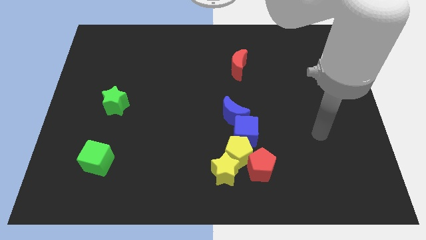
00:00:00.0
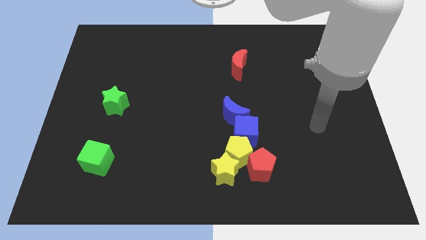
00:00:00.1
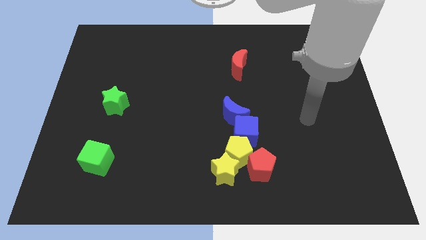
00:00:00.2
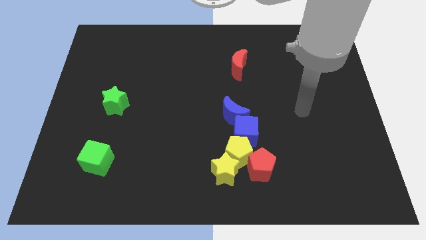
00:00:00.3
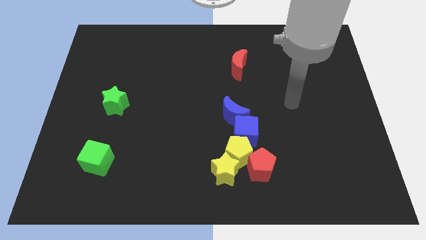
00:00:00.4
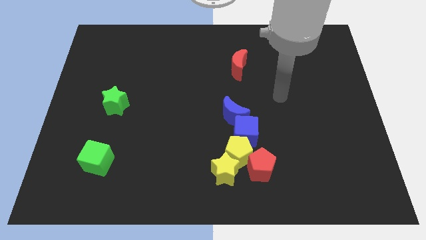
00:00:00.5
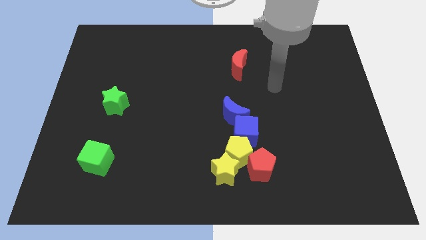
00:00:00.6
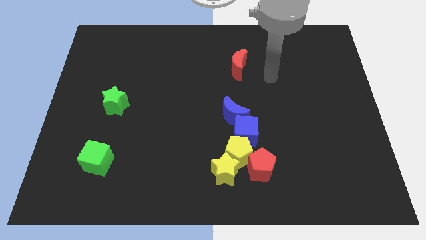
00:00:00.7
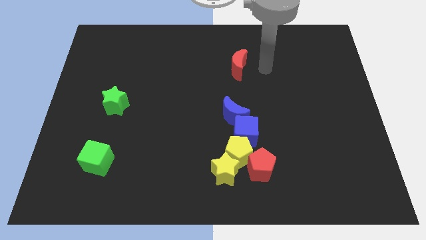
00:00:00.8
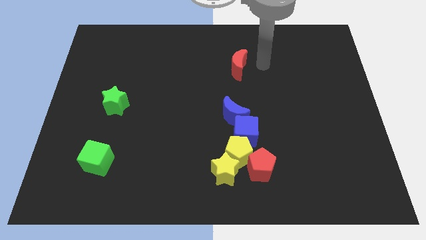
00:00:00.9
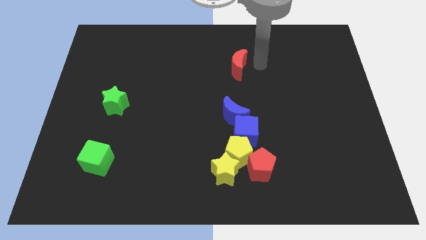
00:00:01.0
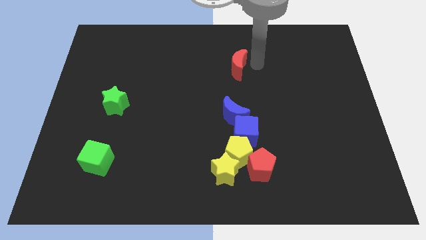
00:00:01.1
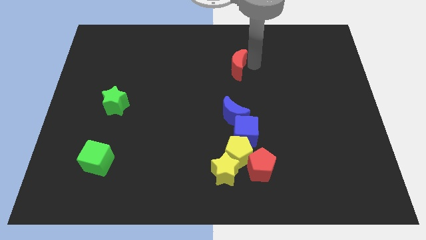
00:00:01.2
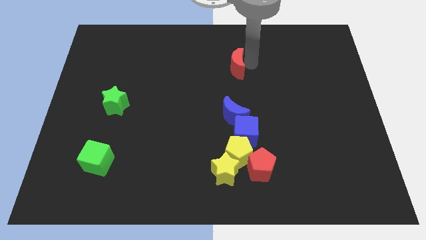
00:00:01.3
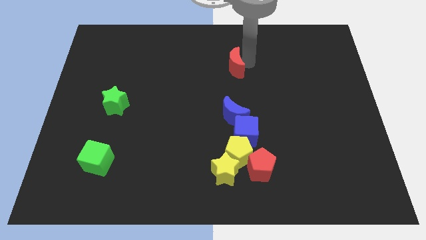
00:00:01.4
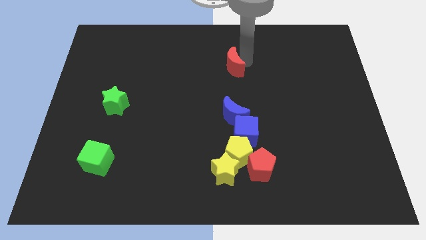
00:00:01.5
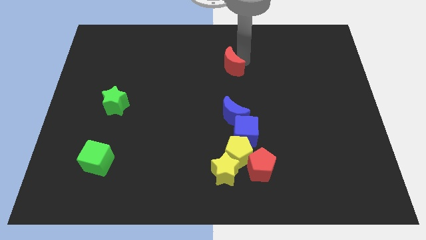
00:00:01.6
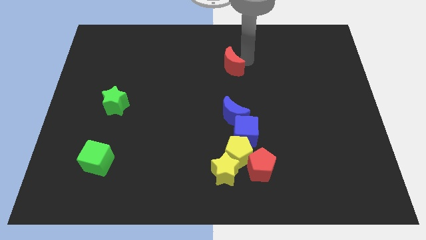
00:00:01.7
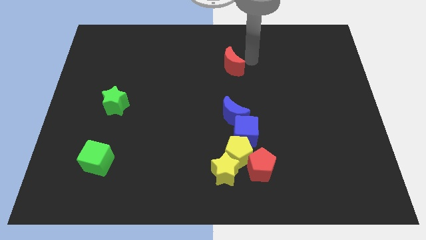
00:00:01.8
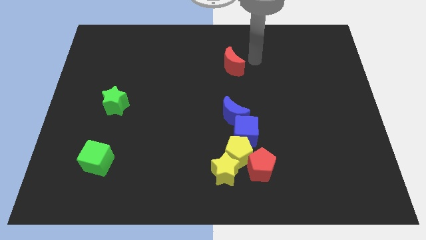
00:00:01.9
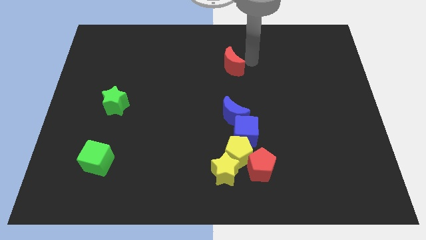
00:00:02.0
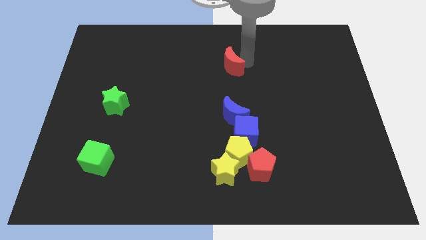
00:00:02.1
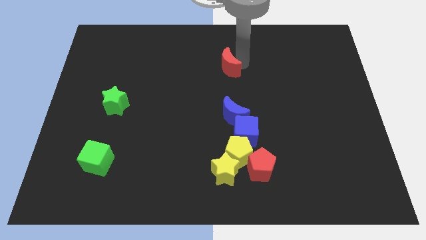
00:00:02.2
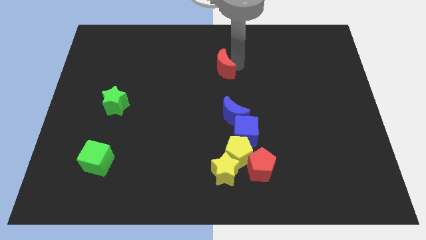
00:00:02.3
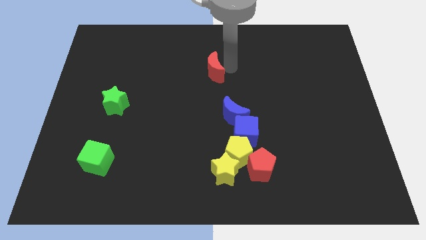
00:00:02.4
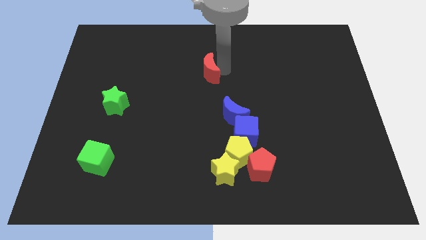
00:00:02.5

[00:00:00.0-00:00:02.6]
push the red moon to the left a bit

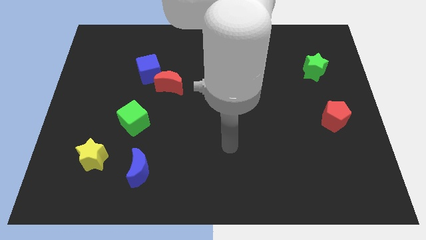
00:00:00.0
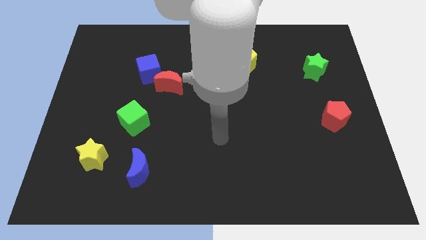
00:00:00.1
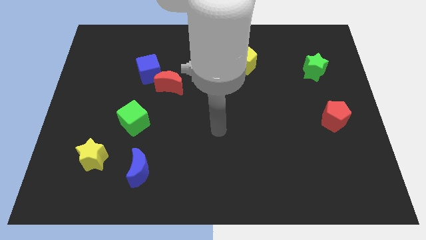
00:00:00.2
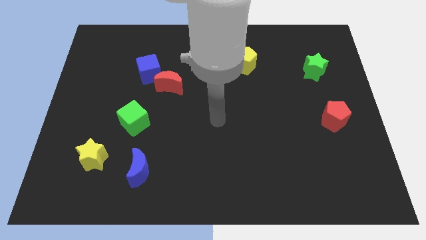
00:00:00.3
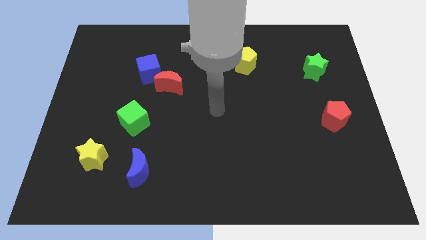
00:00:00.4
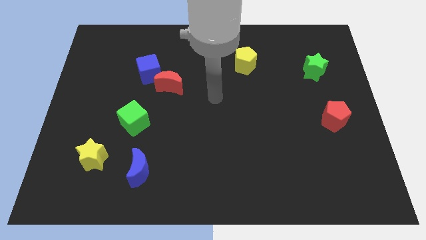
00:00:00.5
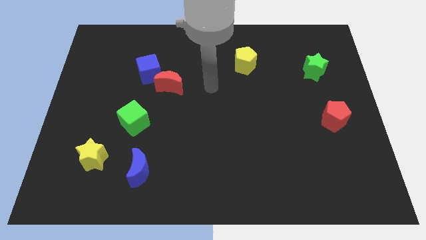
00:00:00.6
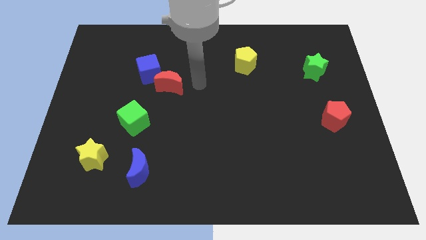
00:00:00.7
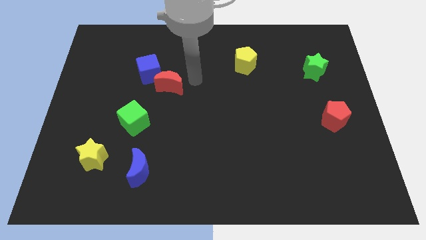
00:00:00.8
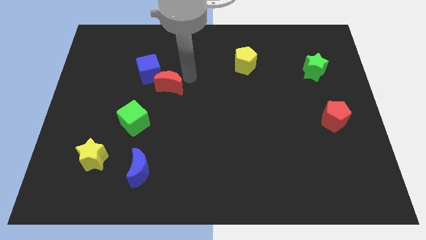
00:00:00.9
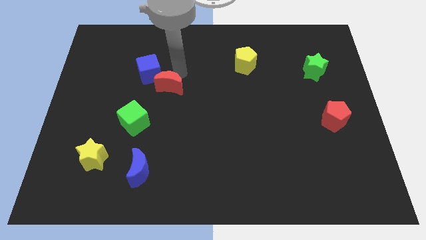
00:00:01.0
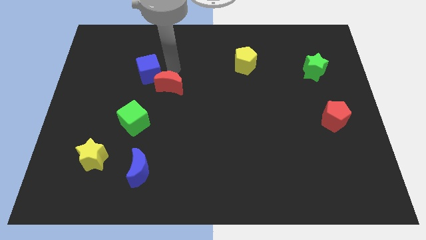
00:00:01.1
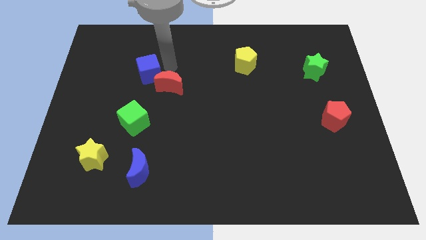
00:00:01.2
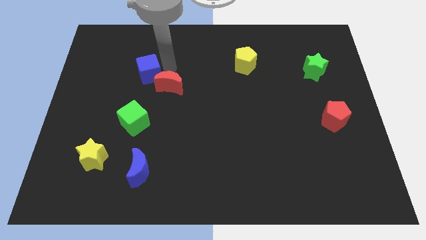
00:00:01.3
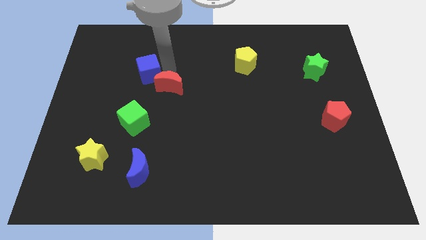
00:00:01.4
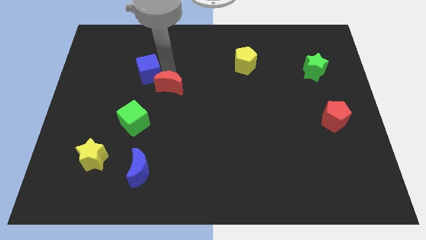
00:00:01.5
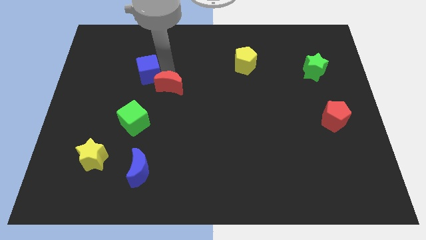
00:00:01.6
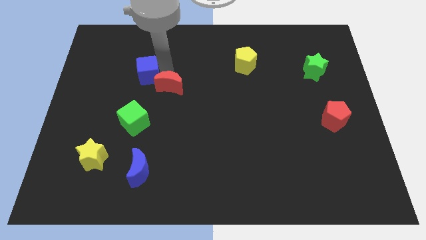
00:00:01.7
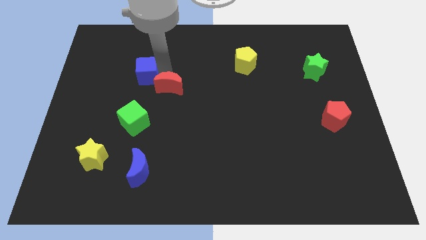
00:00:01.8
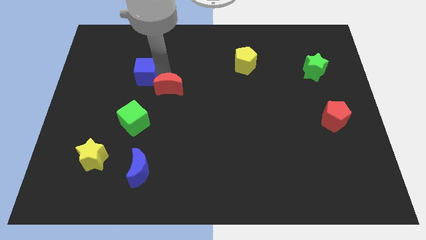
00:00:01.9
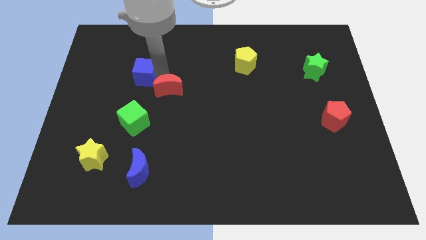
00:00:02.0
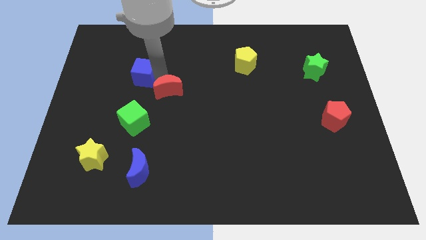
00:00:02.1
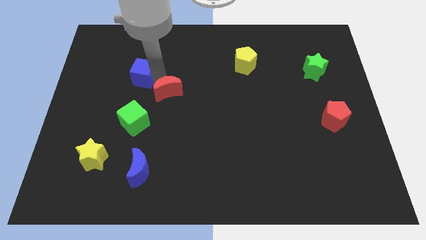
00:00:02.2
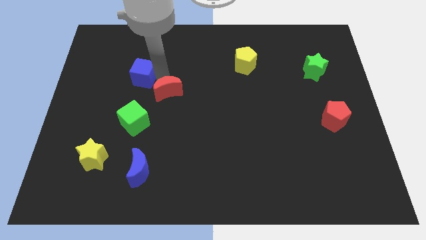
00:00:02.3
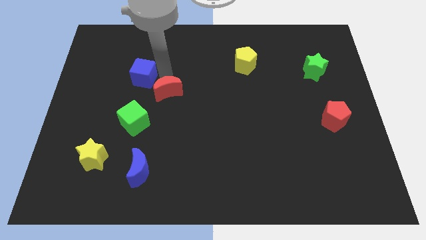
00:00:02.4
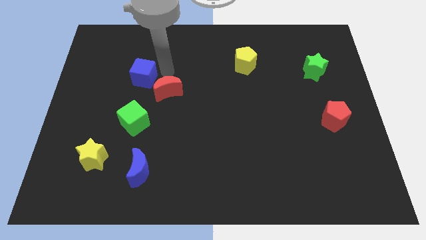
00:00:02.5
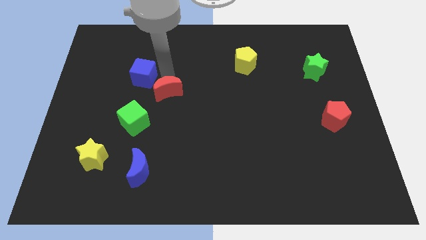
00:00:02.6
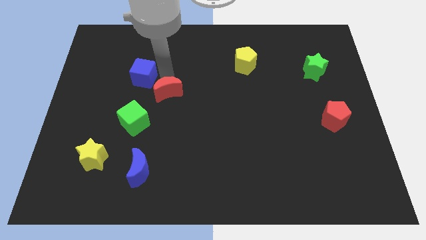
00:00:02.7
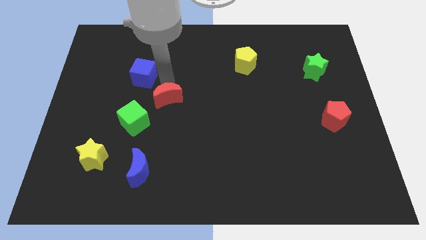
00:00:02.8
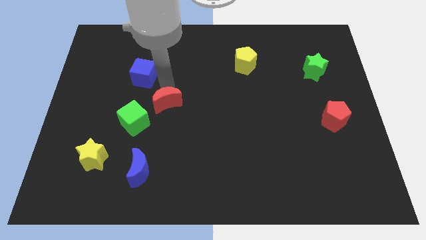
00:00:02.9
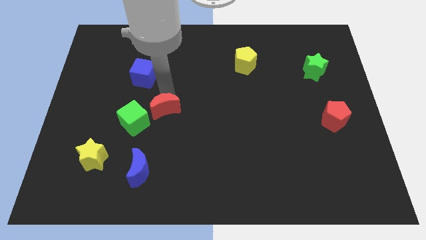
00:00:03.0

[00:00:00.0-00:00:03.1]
slightly slide the red moon down

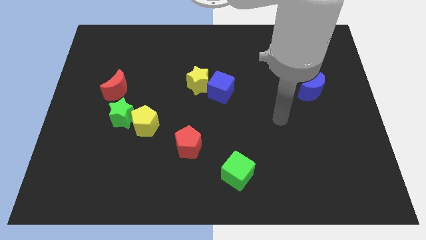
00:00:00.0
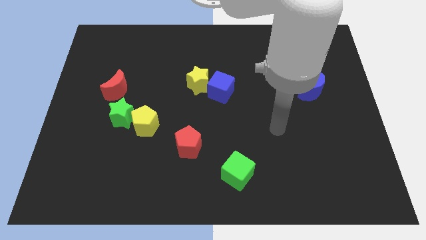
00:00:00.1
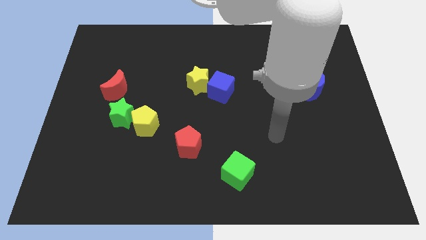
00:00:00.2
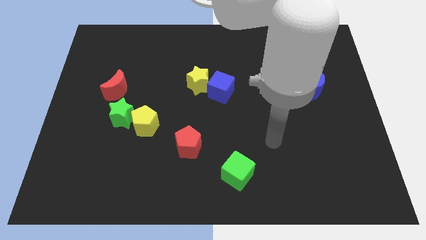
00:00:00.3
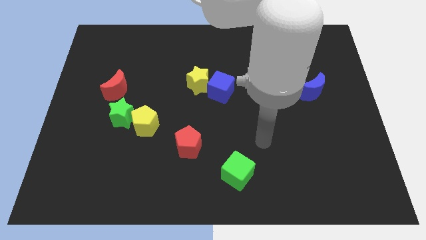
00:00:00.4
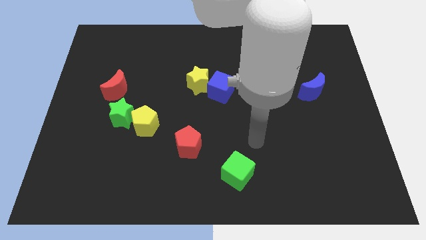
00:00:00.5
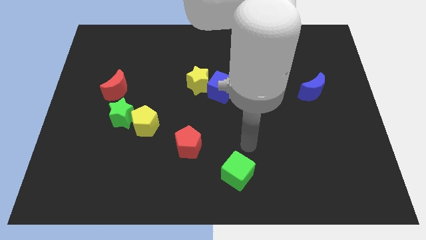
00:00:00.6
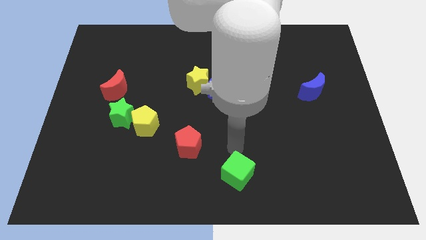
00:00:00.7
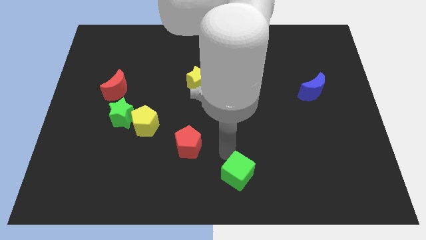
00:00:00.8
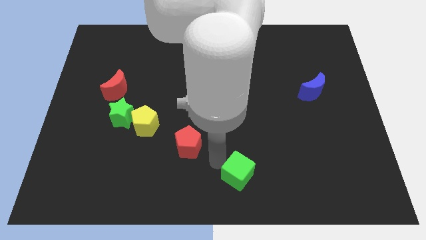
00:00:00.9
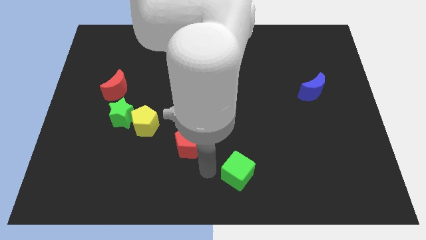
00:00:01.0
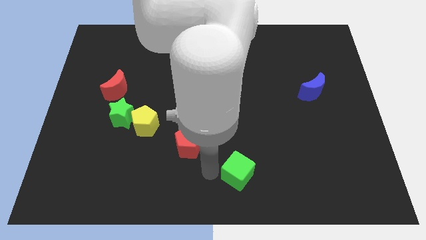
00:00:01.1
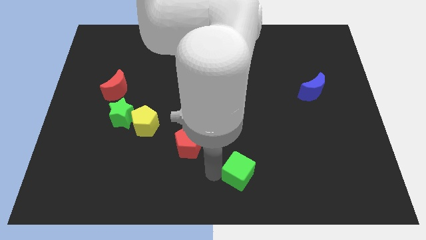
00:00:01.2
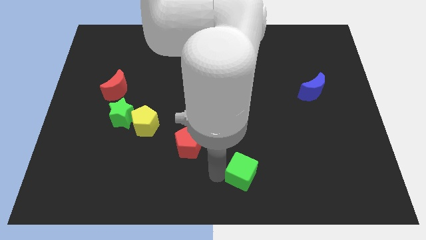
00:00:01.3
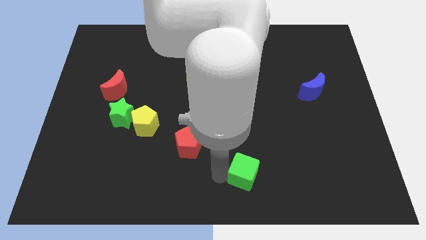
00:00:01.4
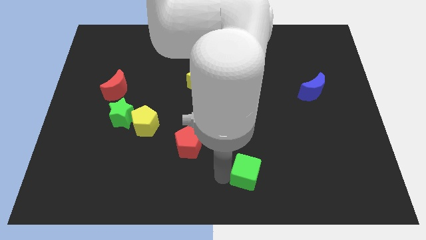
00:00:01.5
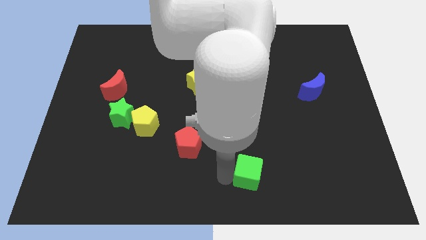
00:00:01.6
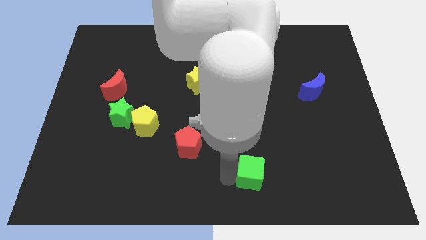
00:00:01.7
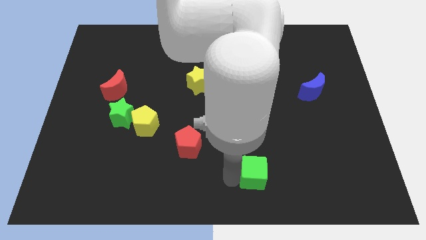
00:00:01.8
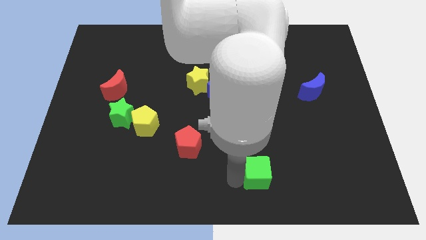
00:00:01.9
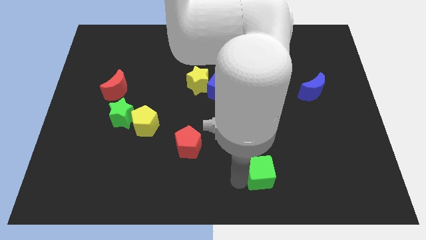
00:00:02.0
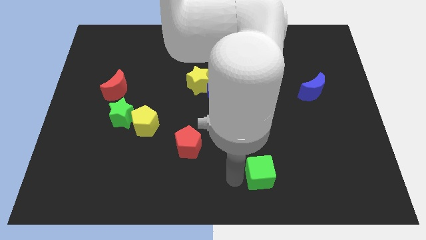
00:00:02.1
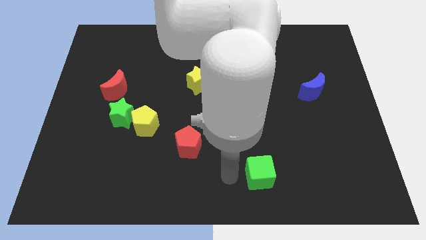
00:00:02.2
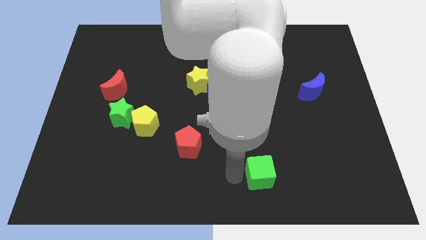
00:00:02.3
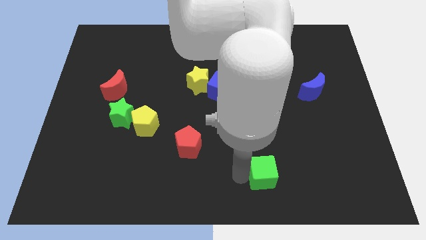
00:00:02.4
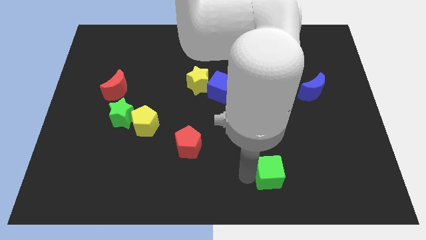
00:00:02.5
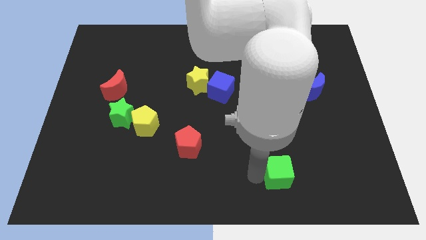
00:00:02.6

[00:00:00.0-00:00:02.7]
slide the green cube right slightly
